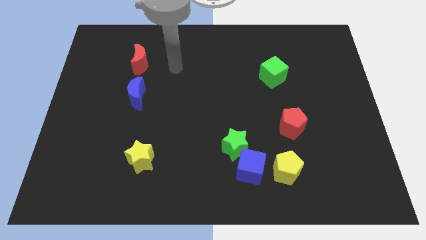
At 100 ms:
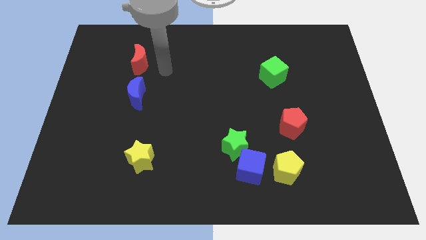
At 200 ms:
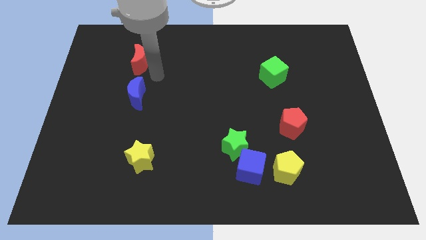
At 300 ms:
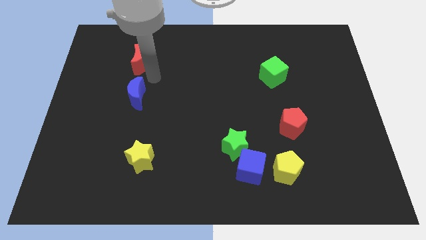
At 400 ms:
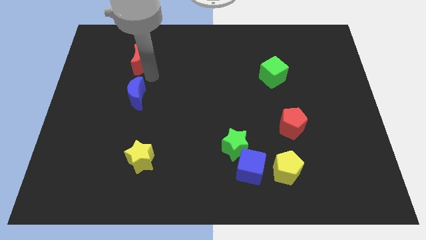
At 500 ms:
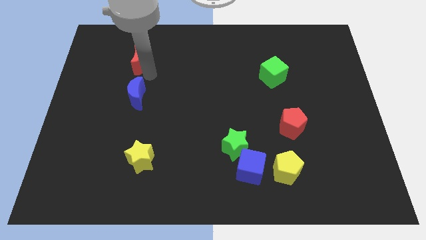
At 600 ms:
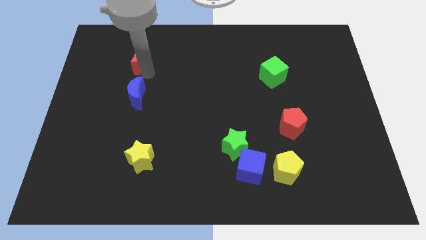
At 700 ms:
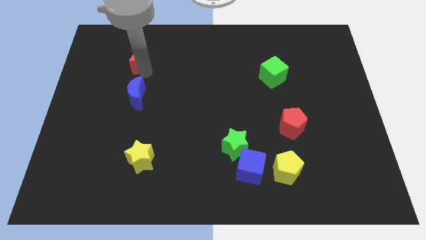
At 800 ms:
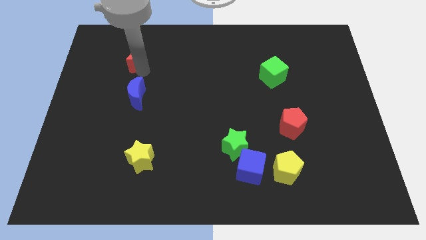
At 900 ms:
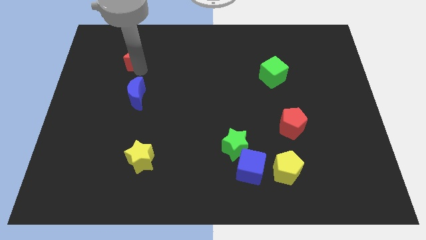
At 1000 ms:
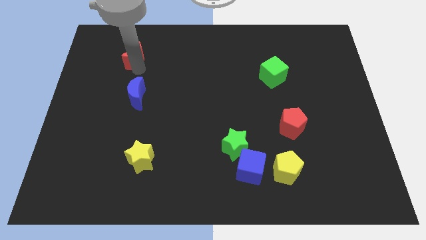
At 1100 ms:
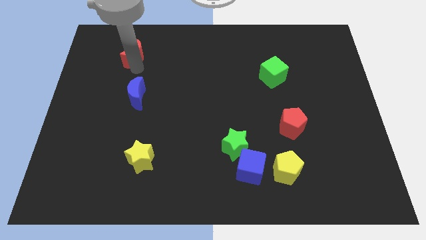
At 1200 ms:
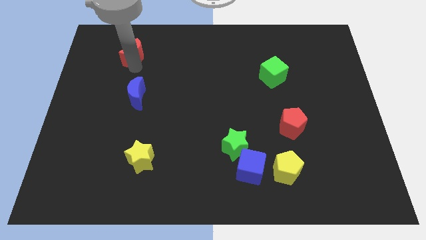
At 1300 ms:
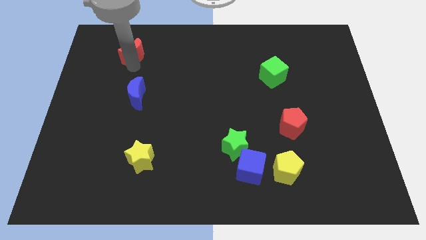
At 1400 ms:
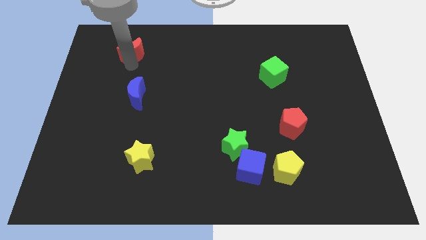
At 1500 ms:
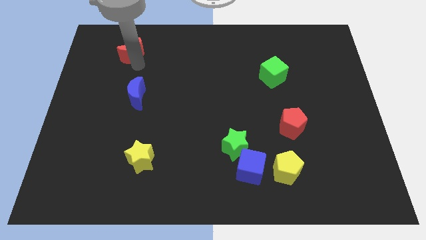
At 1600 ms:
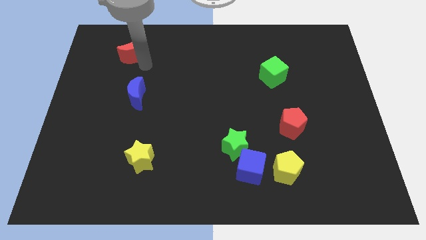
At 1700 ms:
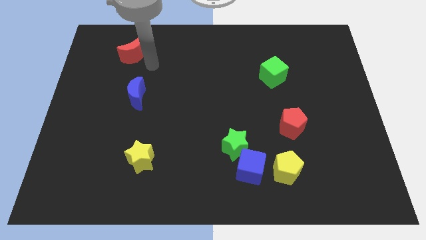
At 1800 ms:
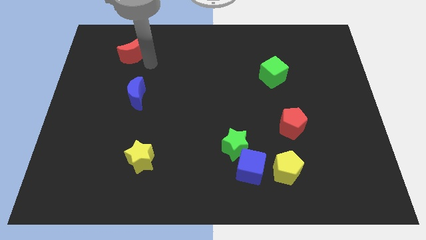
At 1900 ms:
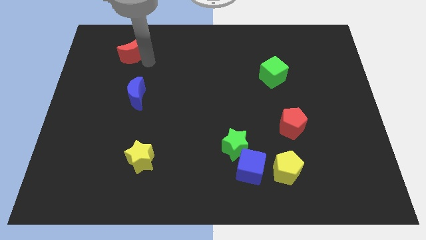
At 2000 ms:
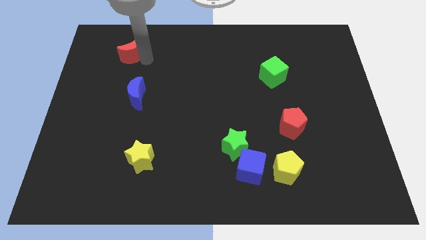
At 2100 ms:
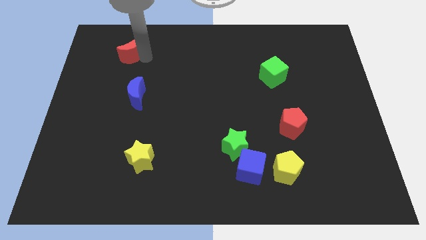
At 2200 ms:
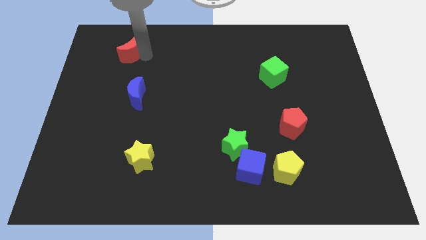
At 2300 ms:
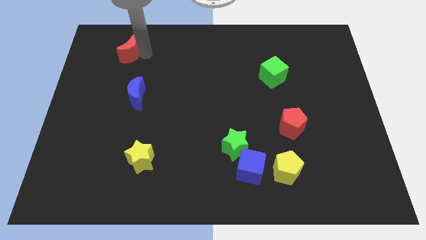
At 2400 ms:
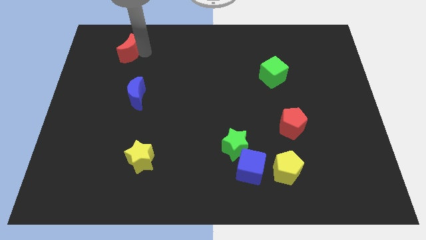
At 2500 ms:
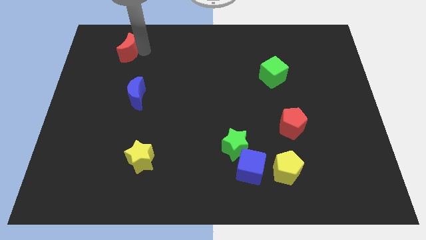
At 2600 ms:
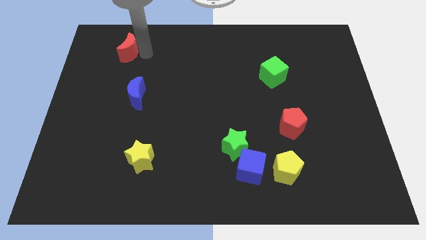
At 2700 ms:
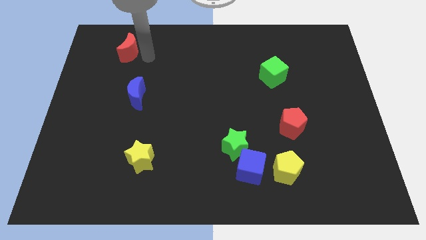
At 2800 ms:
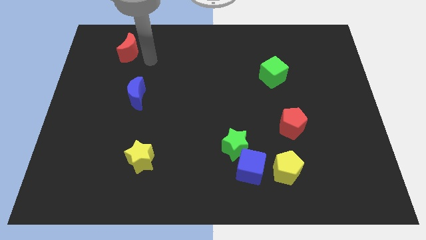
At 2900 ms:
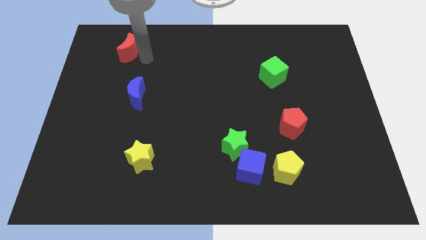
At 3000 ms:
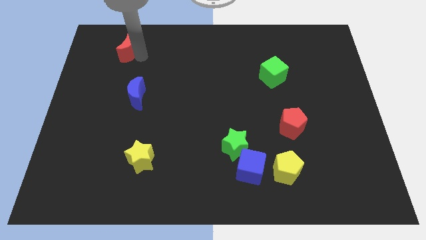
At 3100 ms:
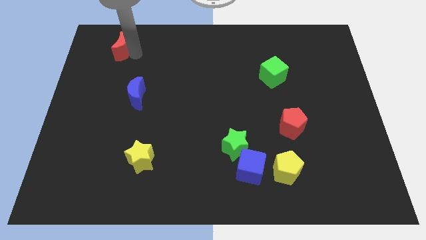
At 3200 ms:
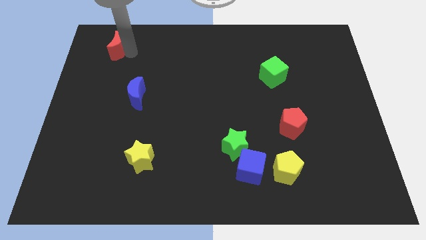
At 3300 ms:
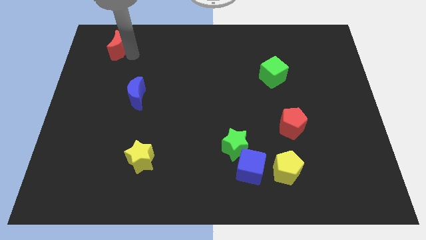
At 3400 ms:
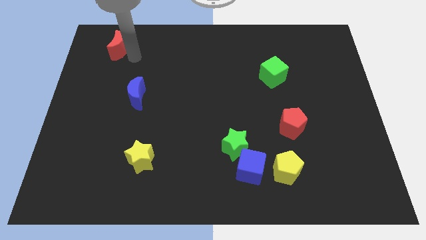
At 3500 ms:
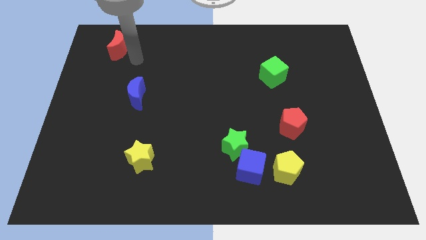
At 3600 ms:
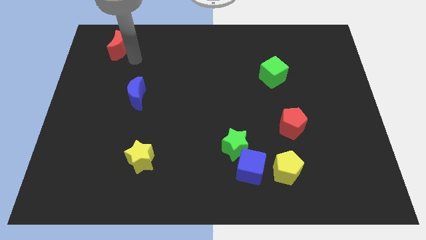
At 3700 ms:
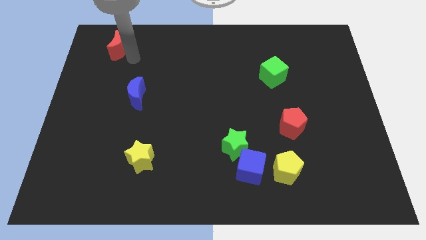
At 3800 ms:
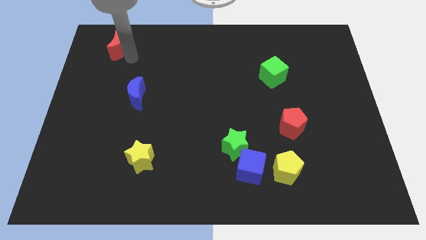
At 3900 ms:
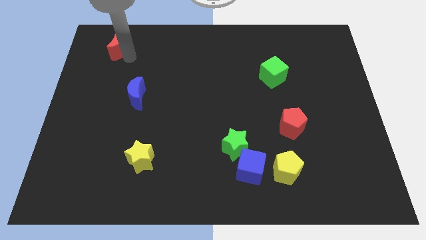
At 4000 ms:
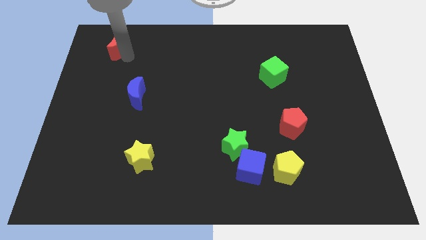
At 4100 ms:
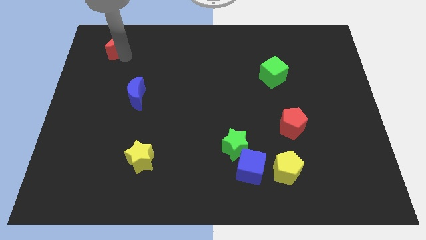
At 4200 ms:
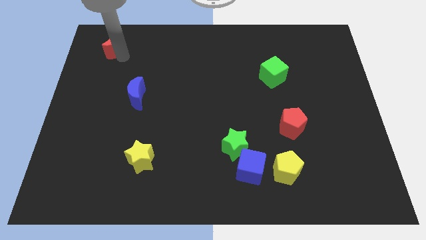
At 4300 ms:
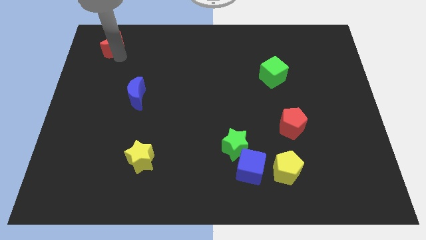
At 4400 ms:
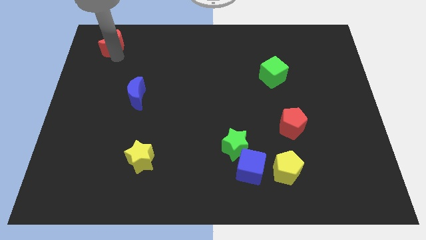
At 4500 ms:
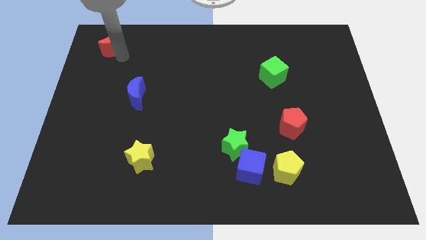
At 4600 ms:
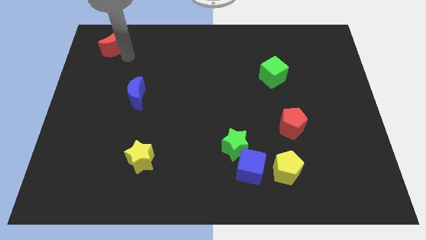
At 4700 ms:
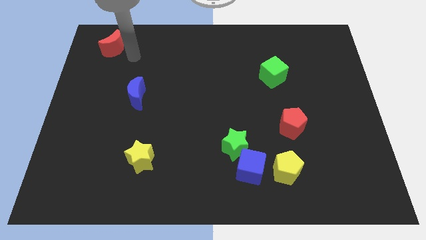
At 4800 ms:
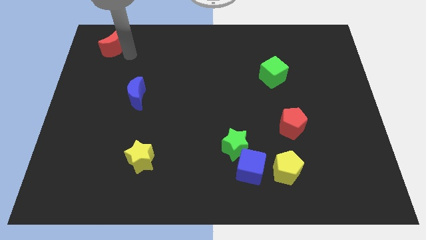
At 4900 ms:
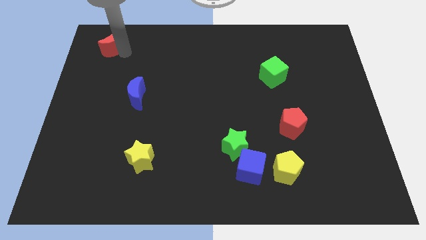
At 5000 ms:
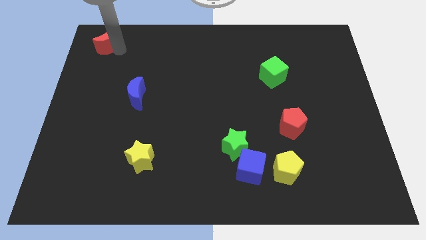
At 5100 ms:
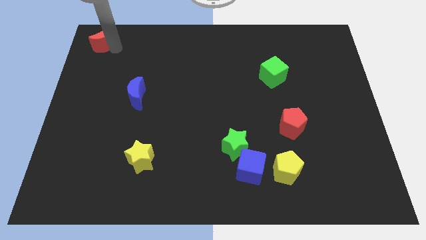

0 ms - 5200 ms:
put the red moon to the top left
